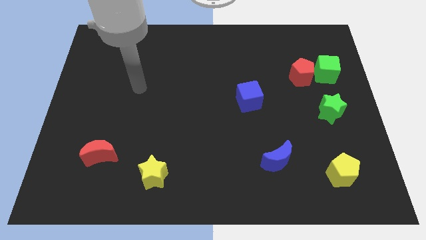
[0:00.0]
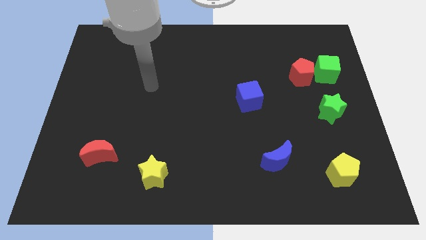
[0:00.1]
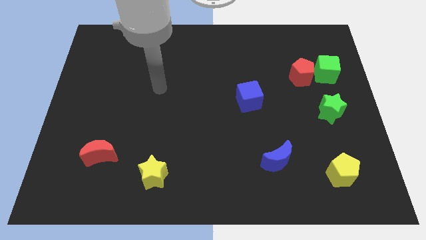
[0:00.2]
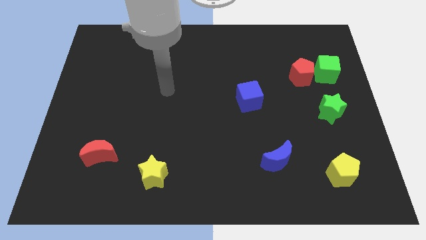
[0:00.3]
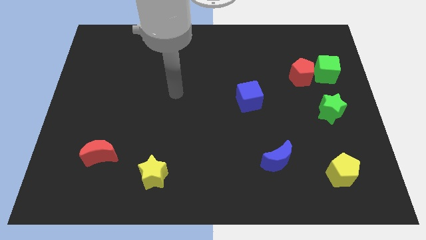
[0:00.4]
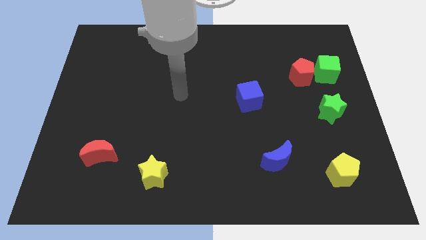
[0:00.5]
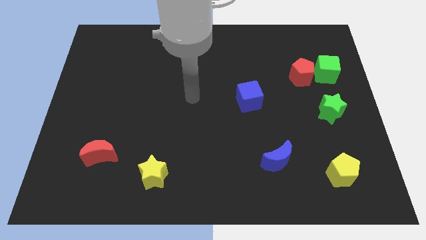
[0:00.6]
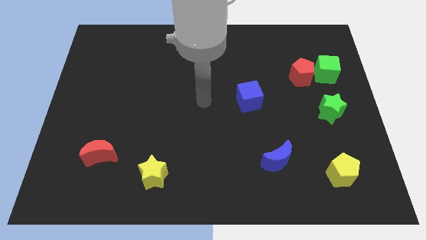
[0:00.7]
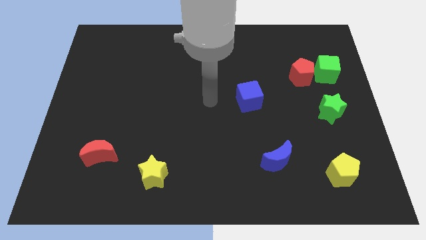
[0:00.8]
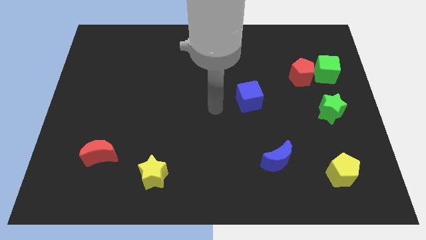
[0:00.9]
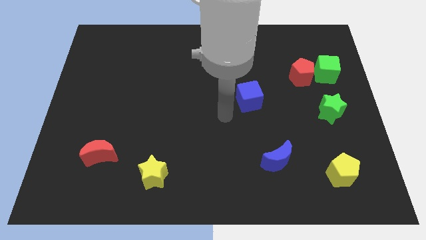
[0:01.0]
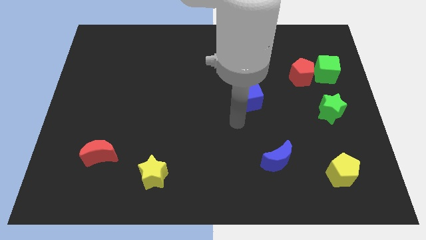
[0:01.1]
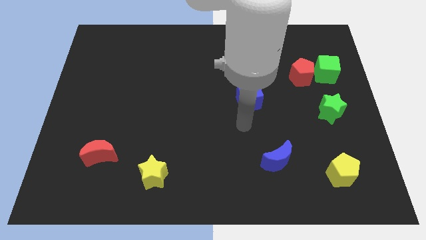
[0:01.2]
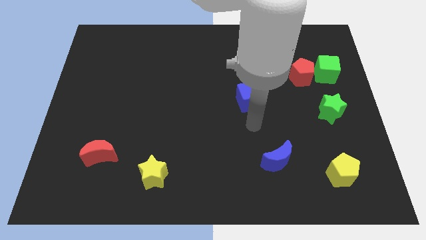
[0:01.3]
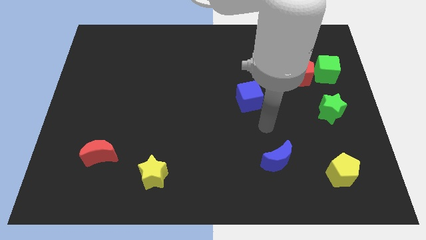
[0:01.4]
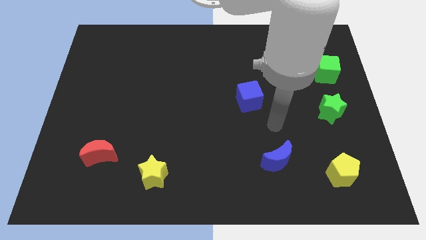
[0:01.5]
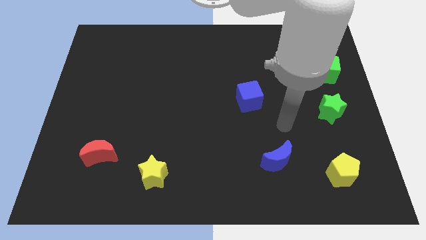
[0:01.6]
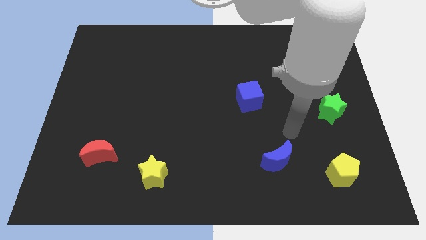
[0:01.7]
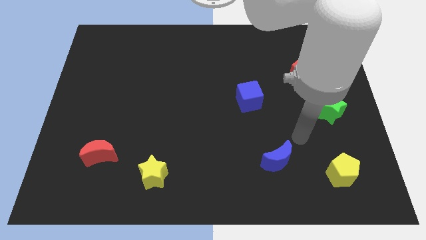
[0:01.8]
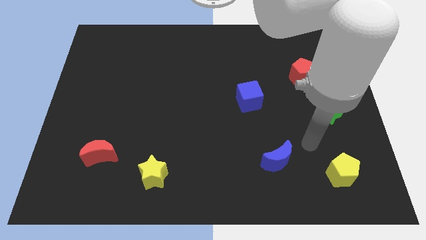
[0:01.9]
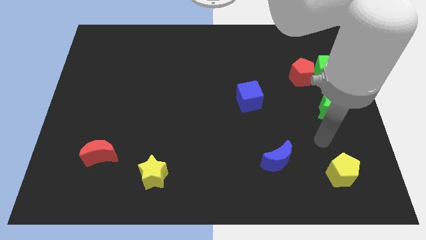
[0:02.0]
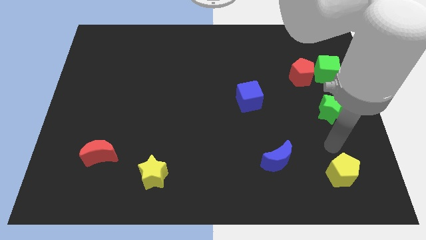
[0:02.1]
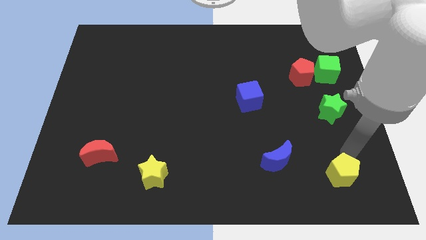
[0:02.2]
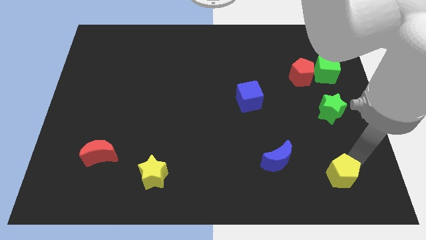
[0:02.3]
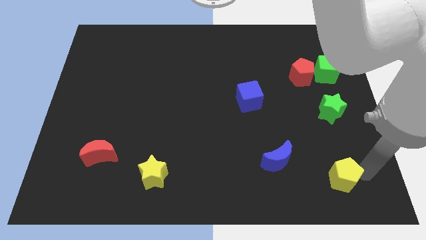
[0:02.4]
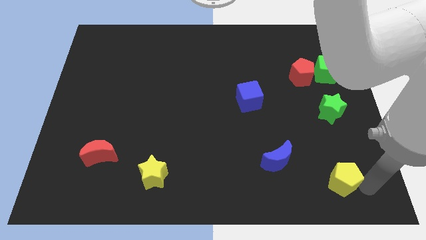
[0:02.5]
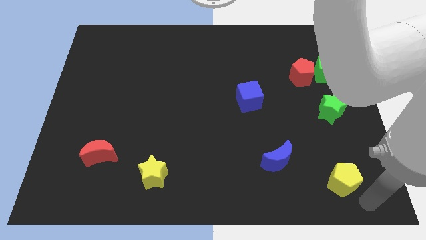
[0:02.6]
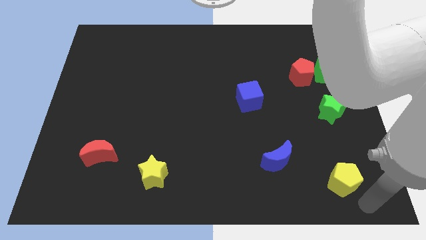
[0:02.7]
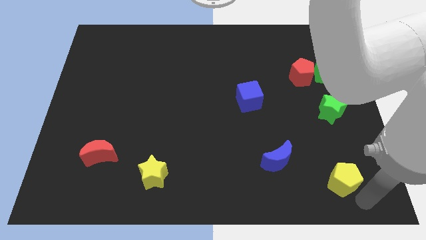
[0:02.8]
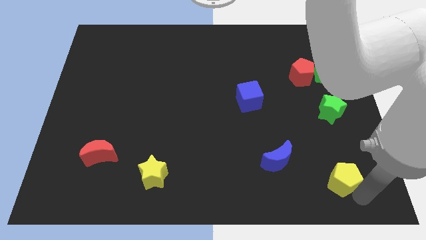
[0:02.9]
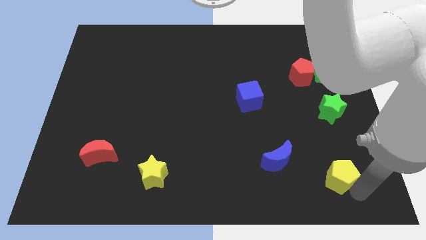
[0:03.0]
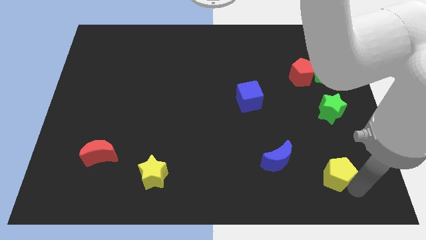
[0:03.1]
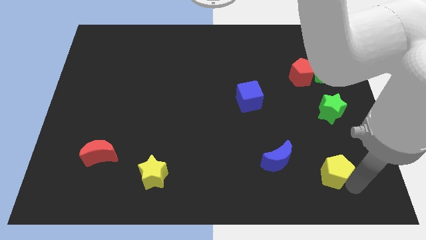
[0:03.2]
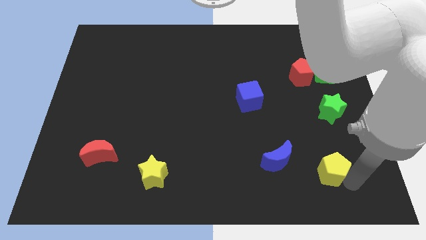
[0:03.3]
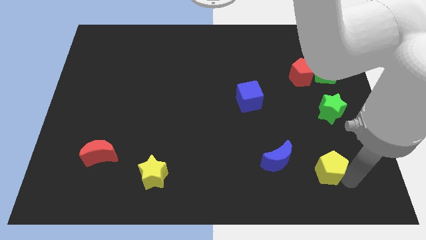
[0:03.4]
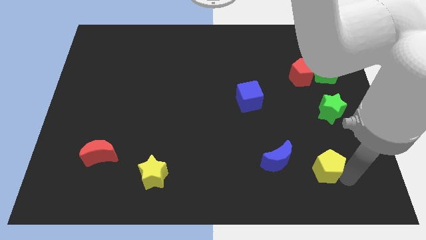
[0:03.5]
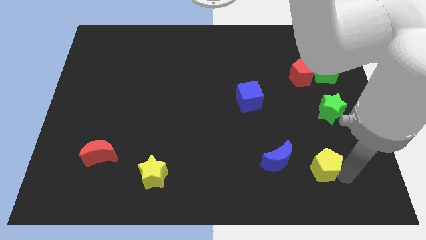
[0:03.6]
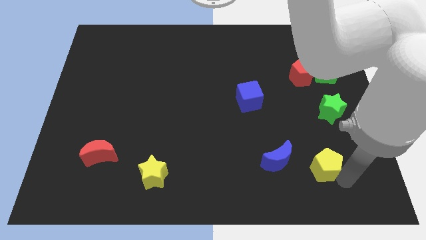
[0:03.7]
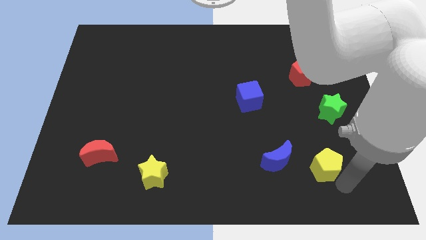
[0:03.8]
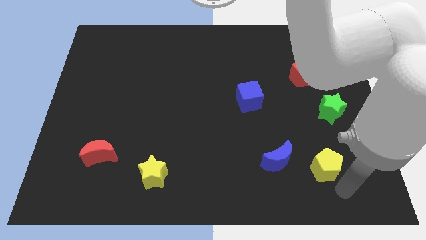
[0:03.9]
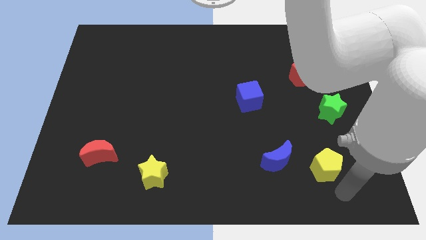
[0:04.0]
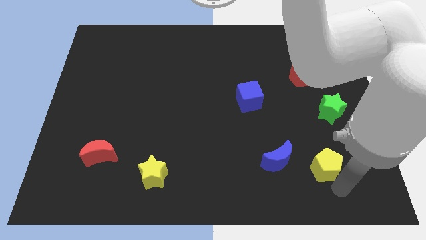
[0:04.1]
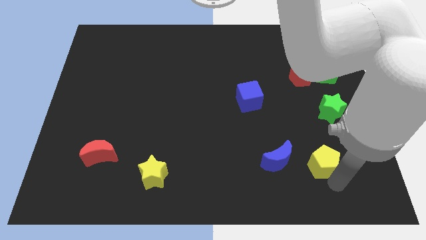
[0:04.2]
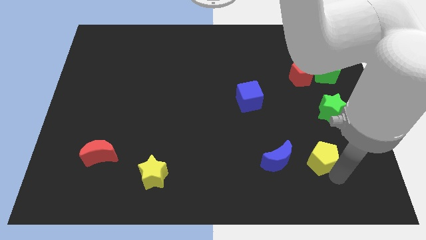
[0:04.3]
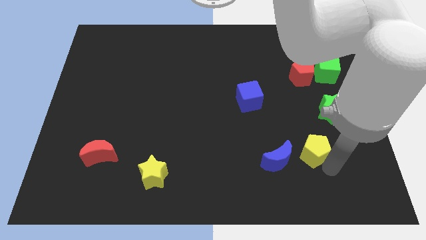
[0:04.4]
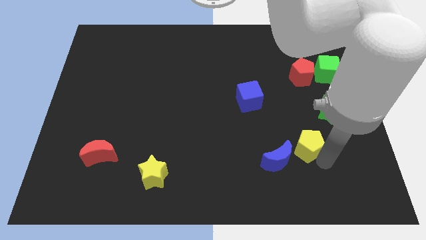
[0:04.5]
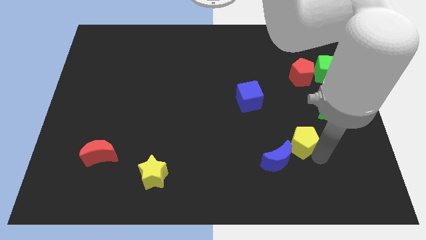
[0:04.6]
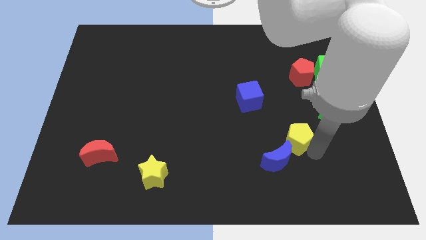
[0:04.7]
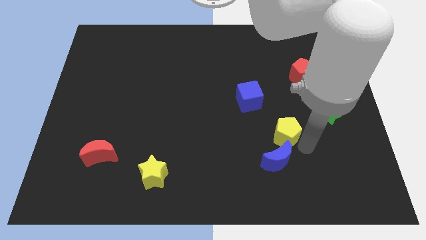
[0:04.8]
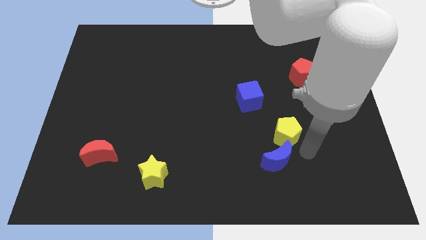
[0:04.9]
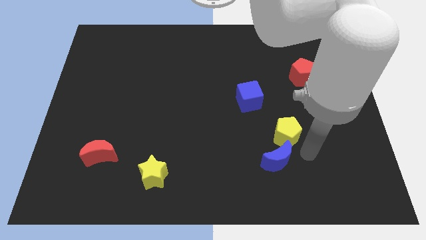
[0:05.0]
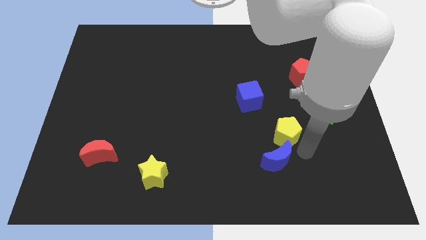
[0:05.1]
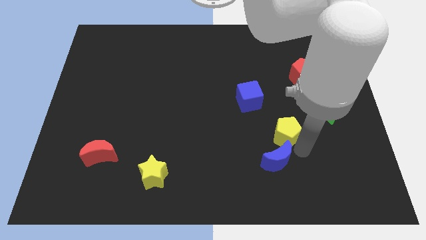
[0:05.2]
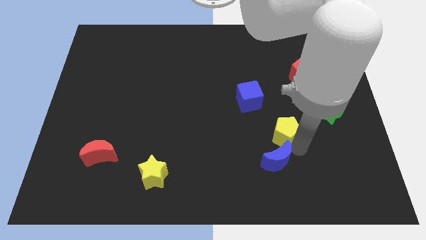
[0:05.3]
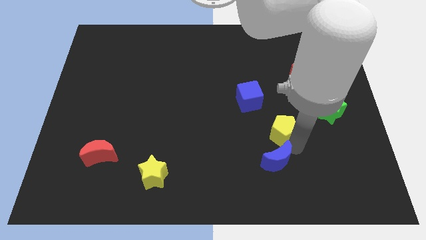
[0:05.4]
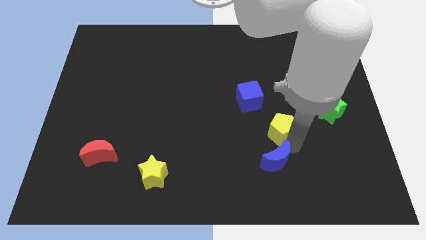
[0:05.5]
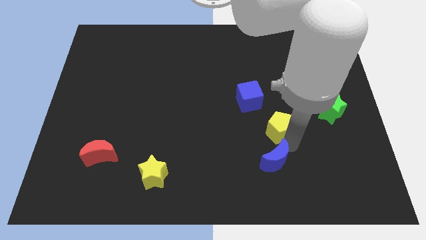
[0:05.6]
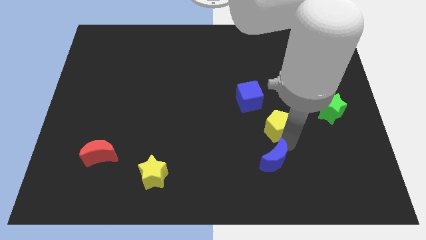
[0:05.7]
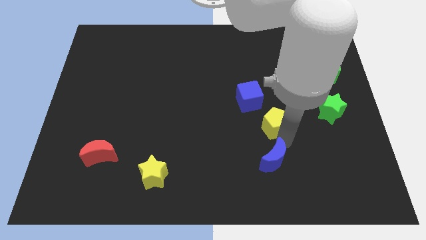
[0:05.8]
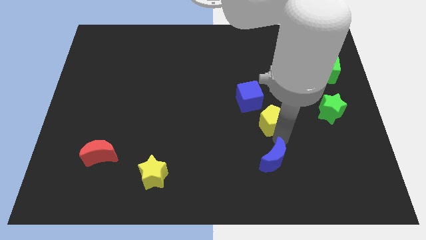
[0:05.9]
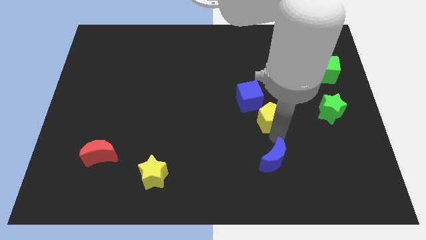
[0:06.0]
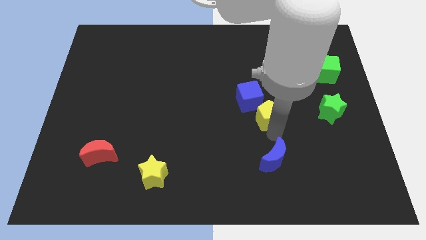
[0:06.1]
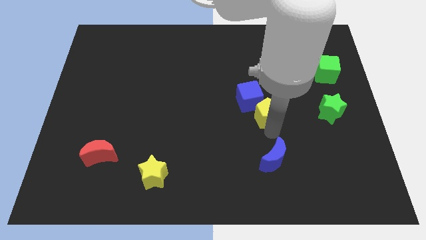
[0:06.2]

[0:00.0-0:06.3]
put the yellow pentagon towards the blue cube

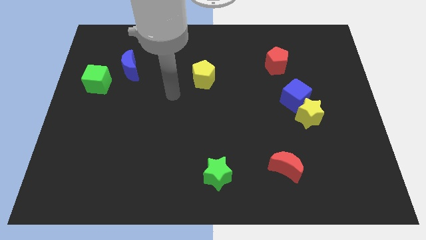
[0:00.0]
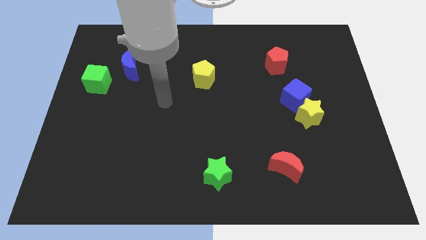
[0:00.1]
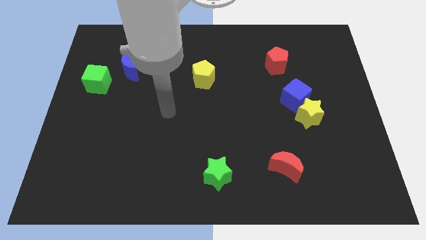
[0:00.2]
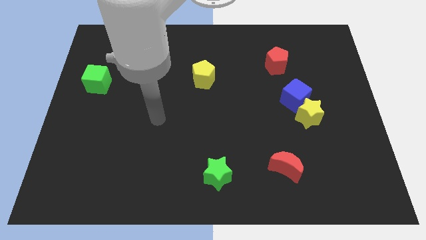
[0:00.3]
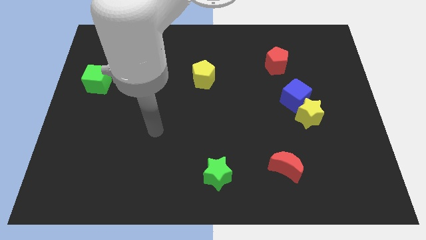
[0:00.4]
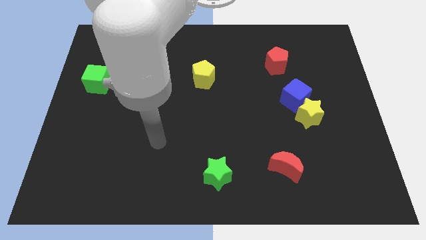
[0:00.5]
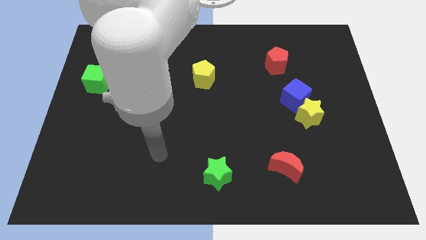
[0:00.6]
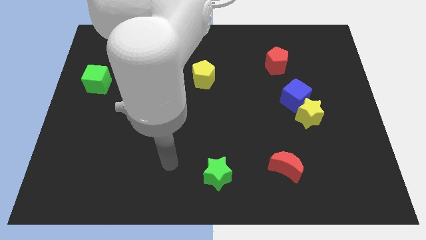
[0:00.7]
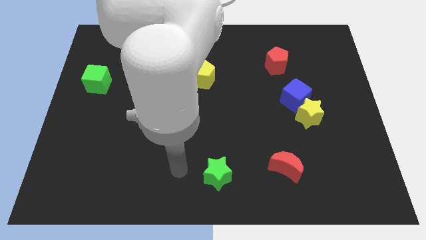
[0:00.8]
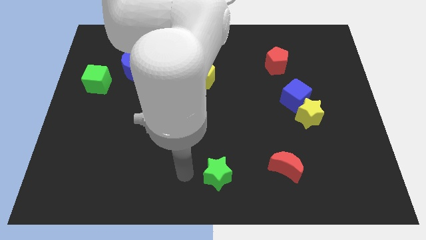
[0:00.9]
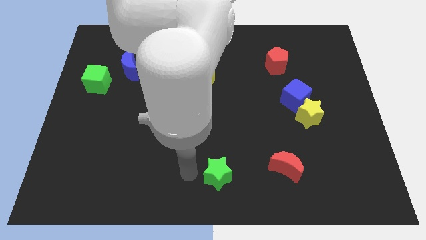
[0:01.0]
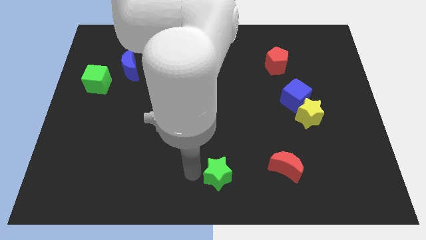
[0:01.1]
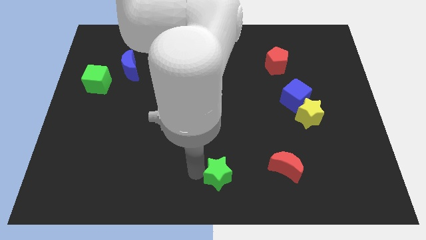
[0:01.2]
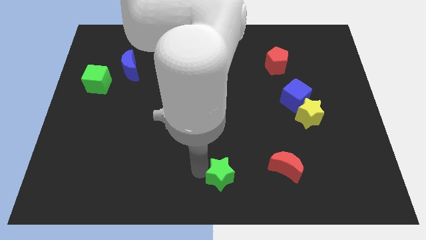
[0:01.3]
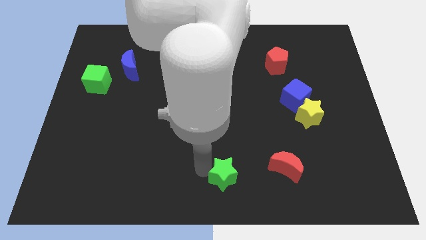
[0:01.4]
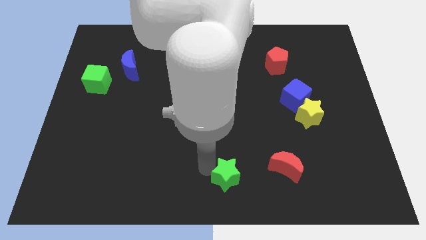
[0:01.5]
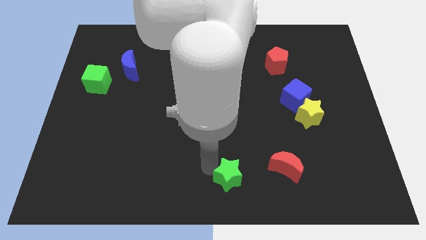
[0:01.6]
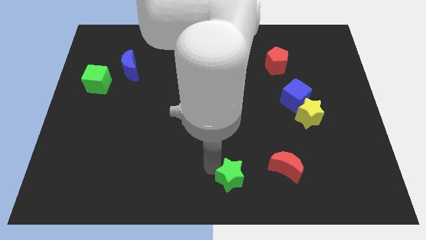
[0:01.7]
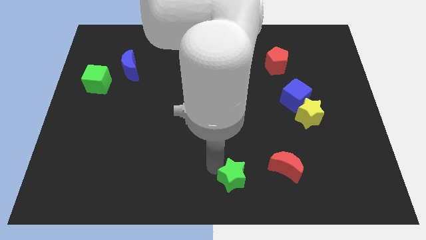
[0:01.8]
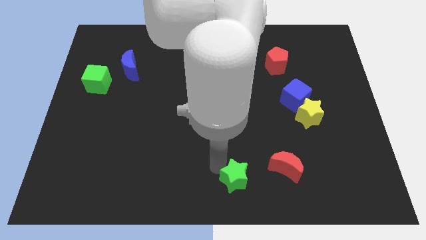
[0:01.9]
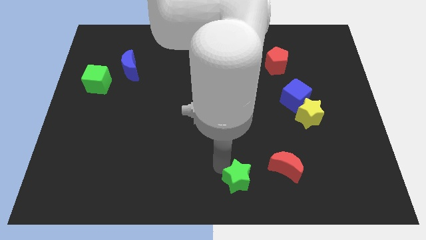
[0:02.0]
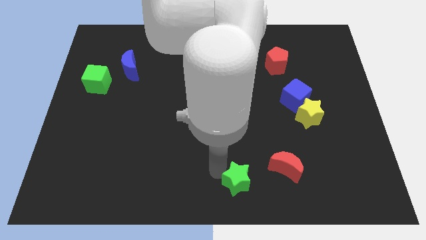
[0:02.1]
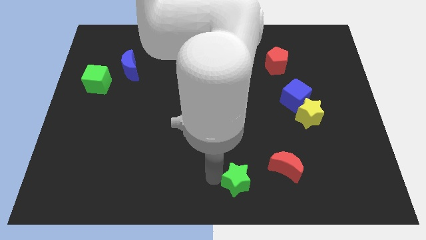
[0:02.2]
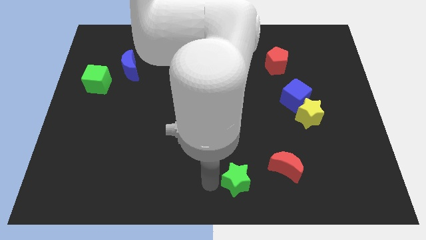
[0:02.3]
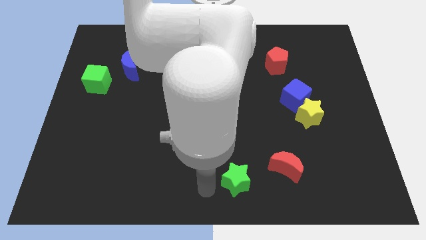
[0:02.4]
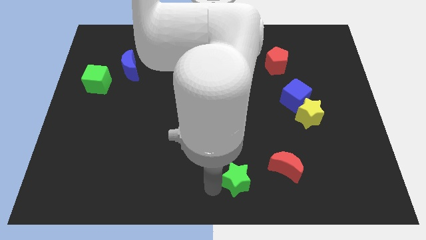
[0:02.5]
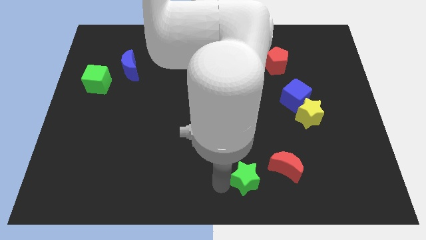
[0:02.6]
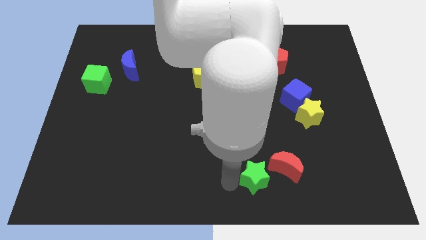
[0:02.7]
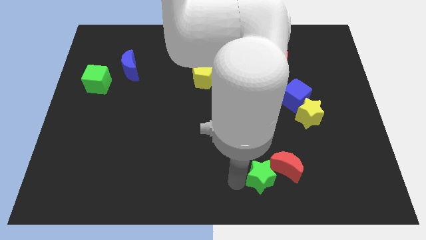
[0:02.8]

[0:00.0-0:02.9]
push the green star to the red moon
